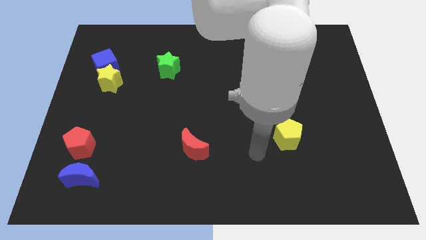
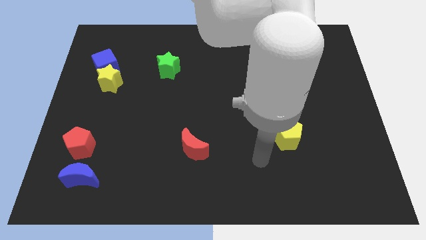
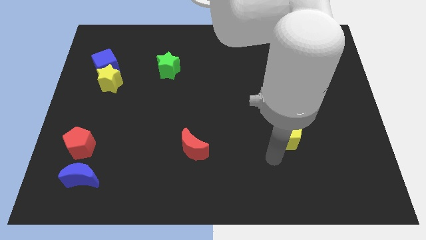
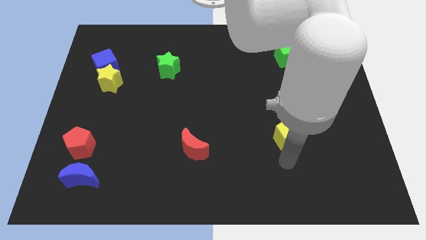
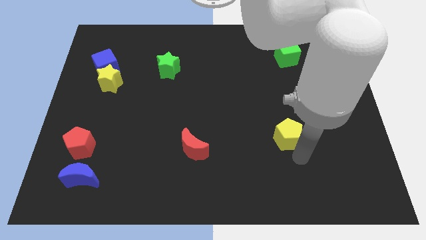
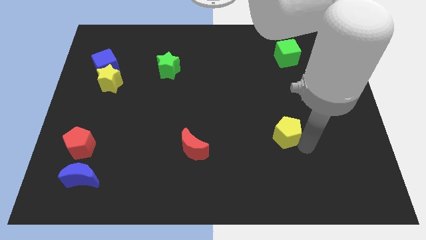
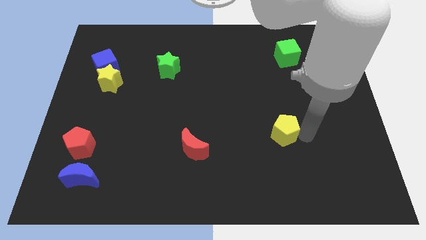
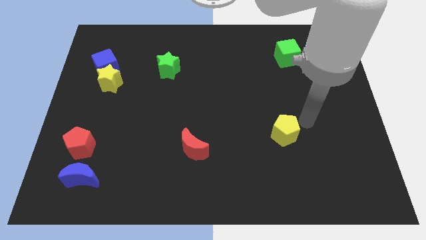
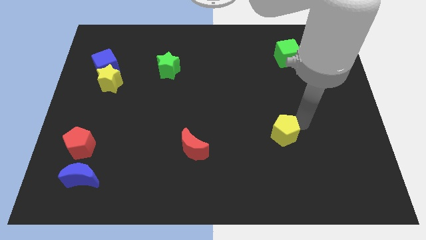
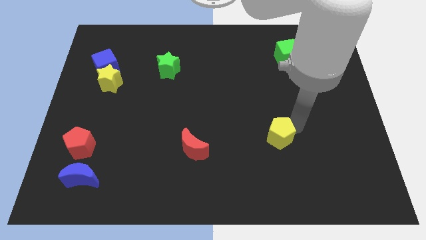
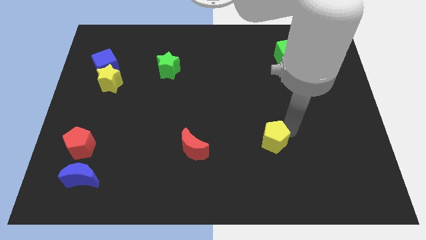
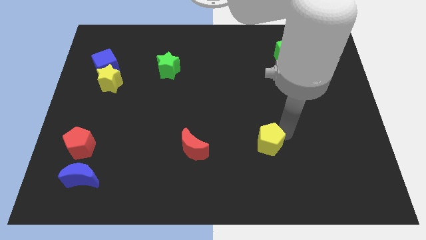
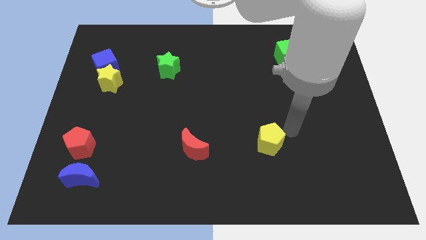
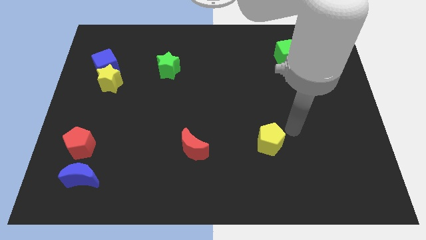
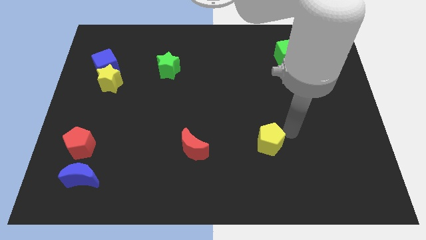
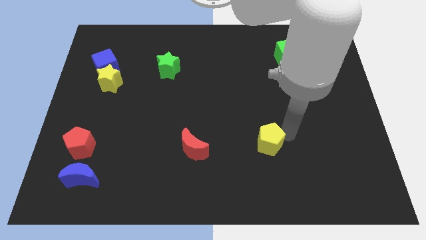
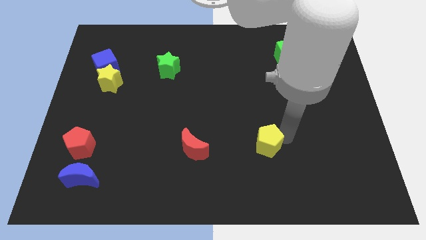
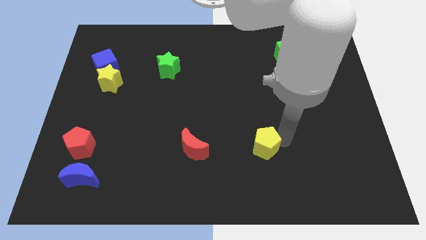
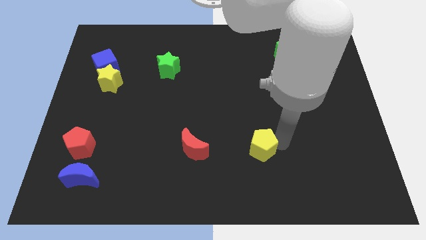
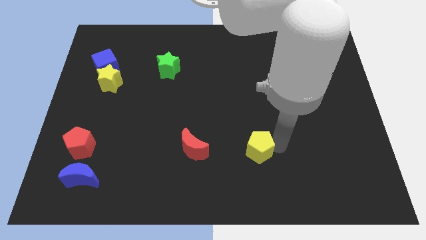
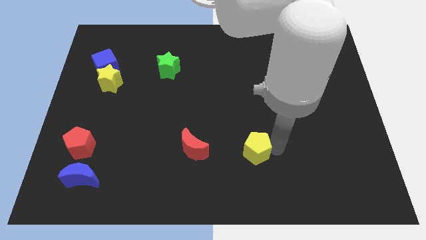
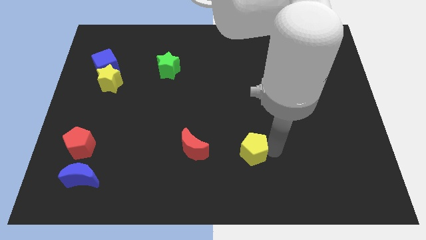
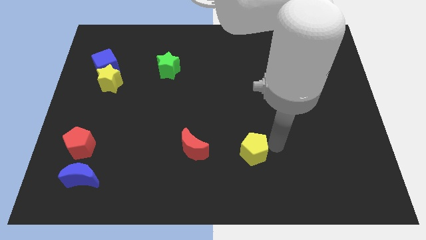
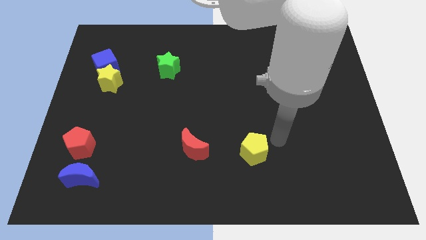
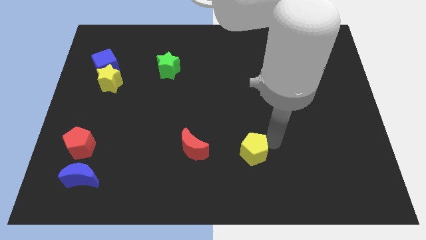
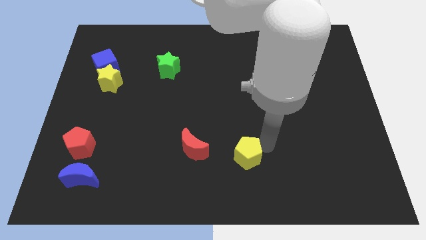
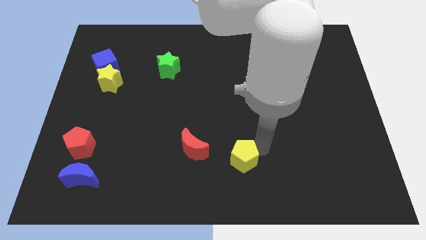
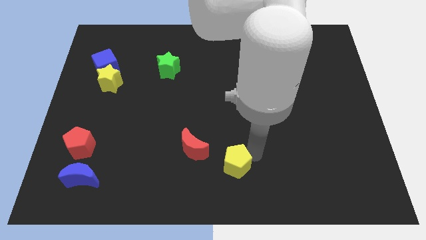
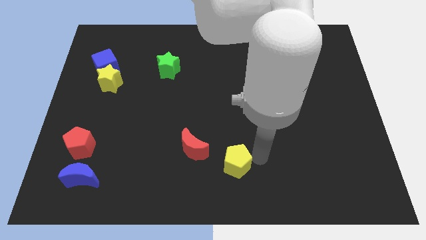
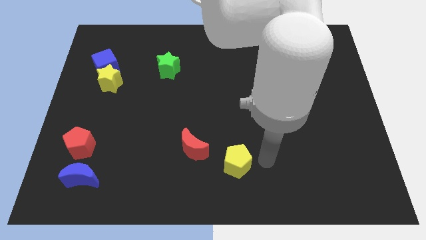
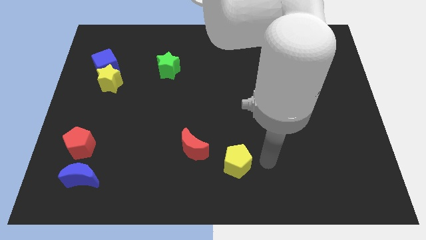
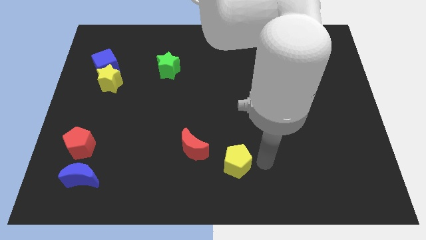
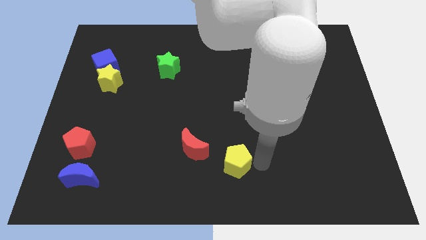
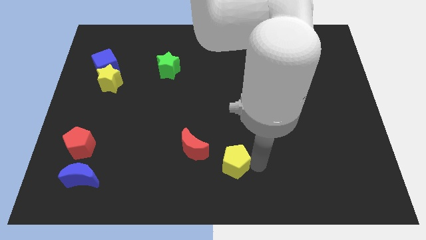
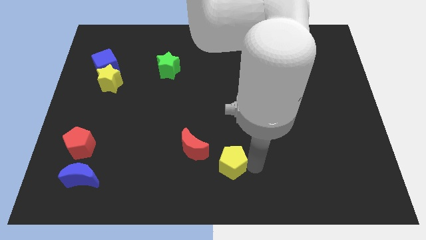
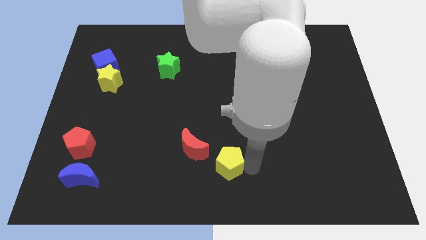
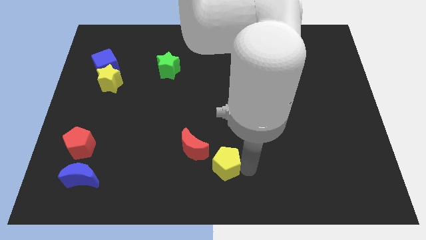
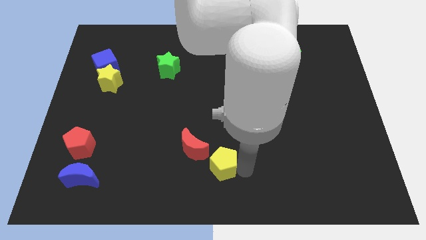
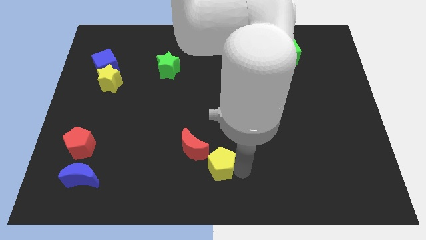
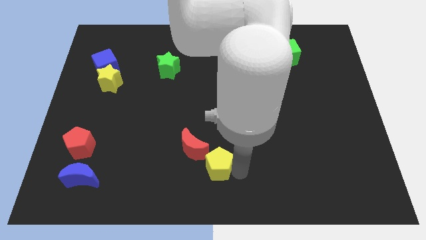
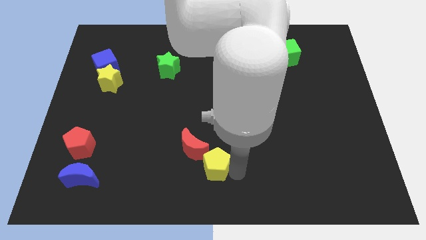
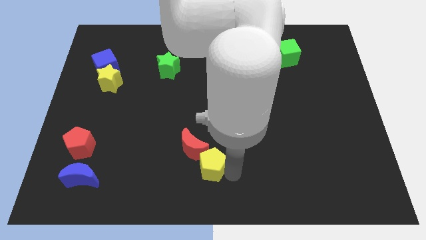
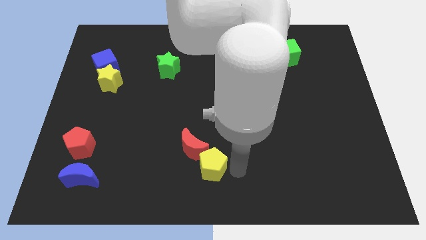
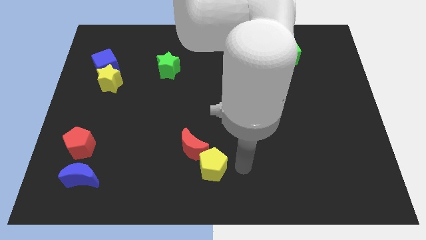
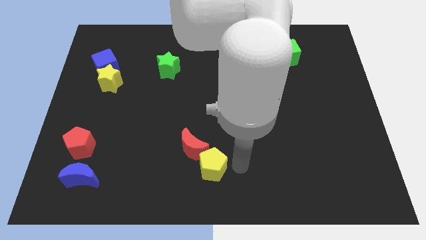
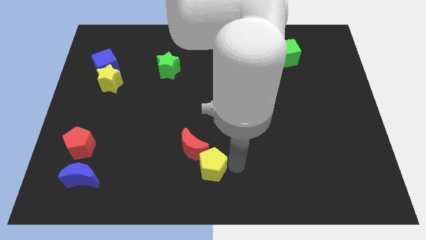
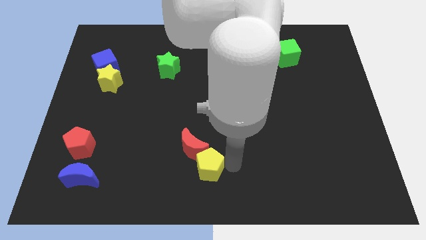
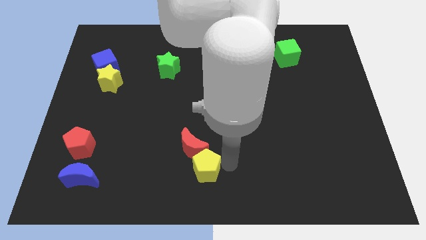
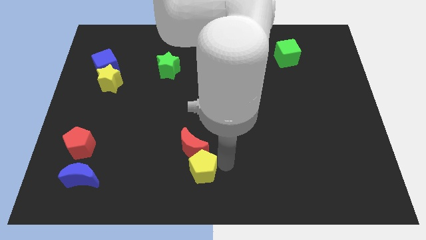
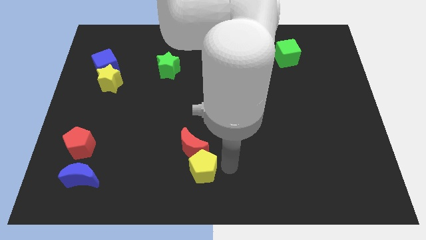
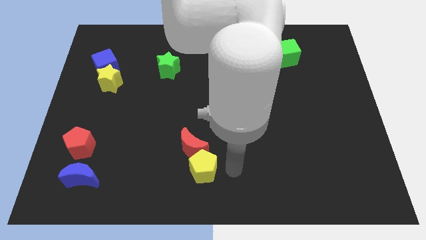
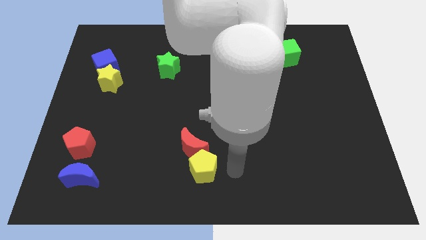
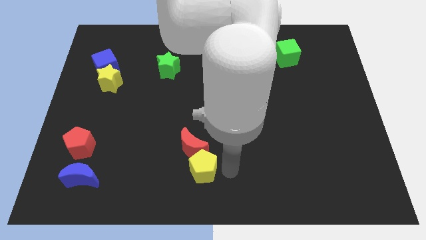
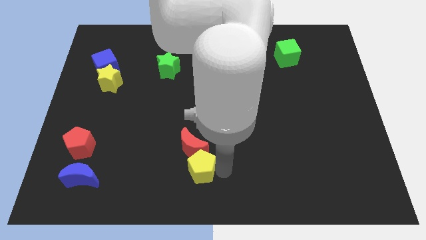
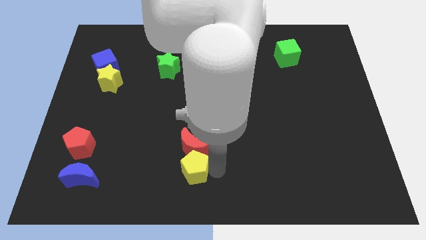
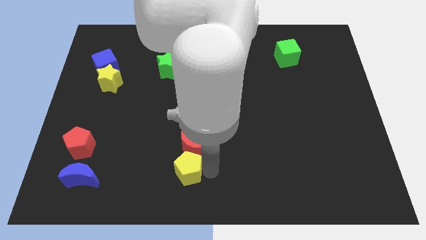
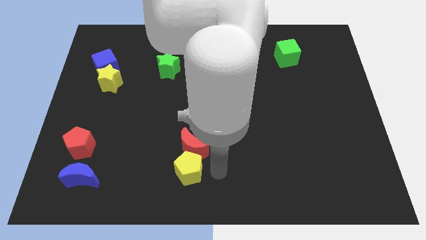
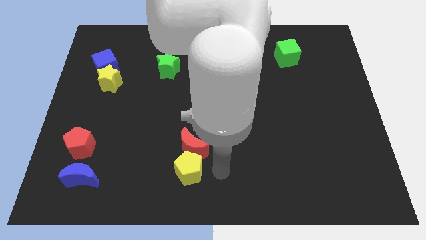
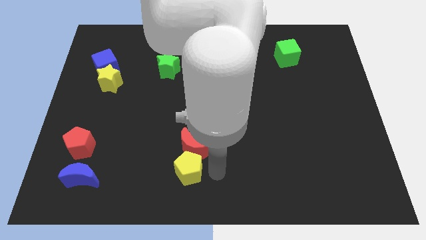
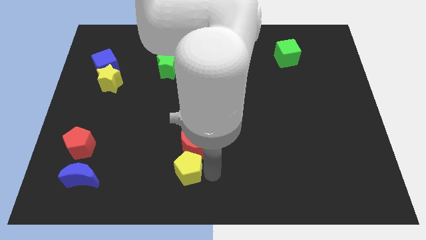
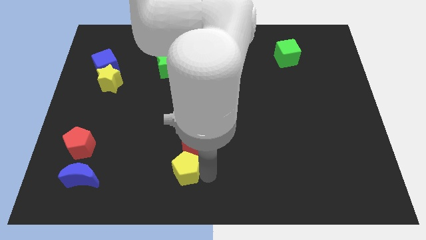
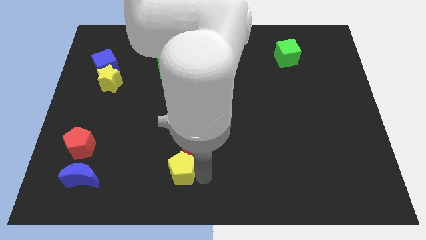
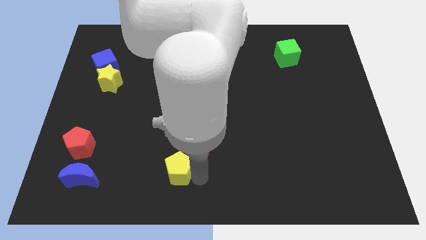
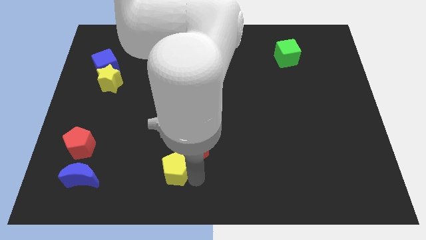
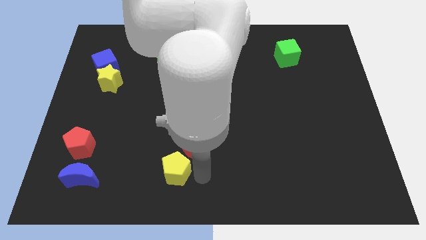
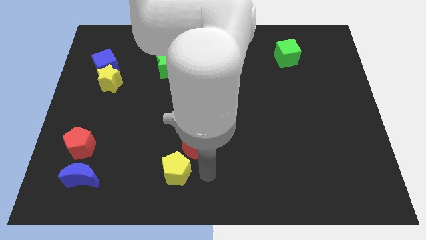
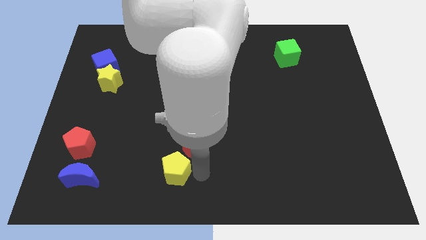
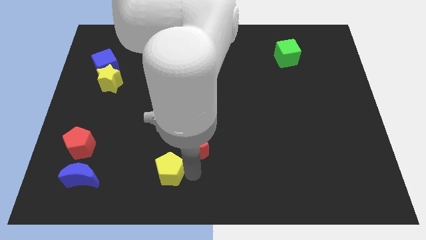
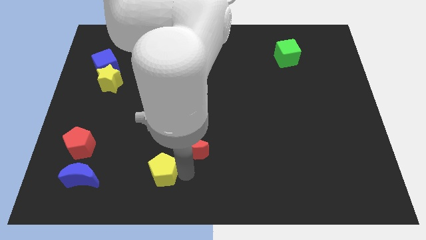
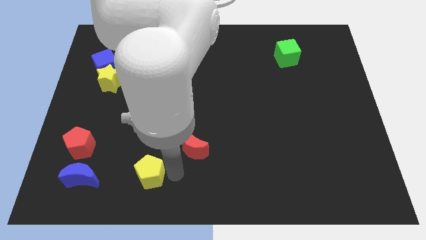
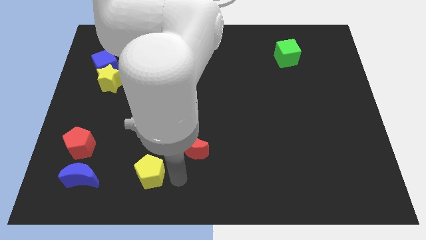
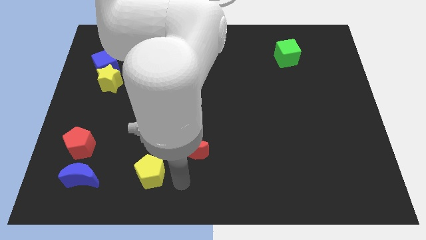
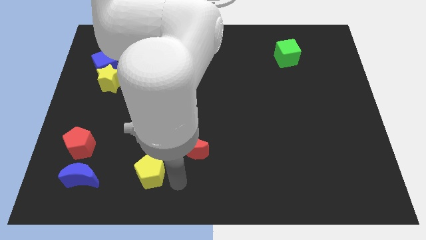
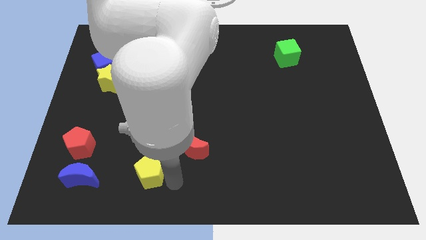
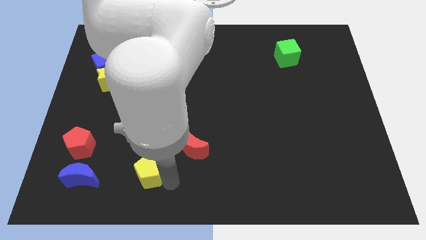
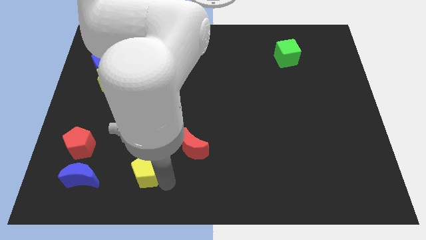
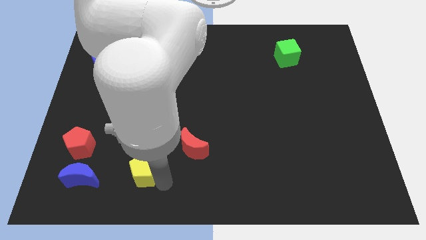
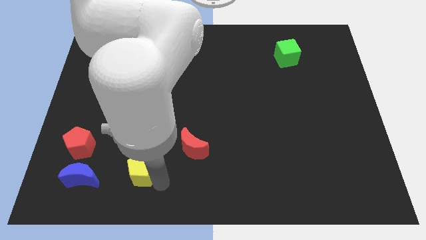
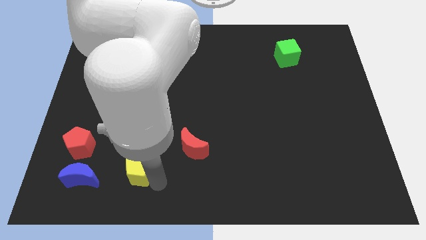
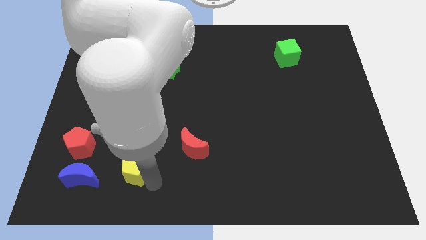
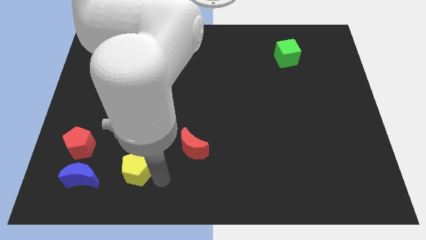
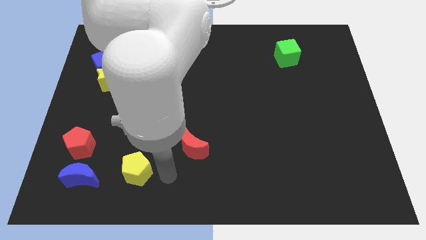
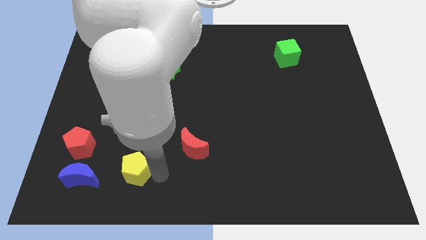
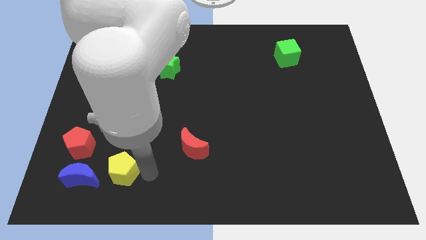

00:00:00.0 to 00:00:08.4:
move the yellow pentagon to the bottom right of the red pentagon
